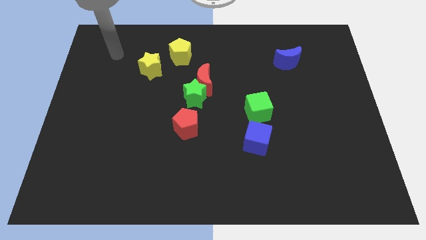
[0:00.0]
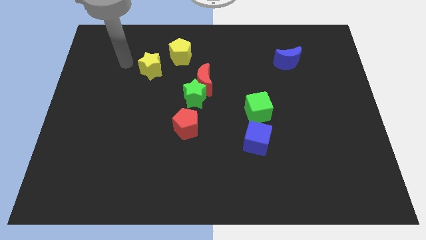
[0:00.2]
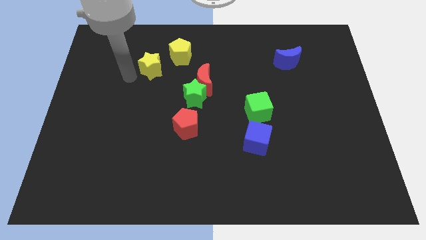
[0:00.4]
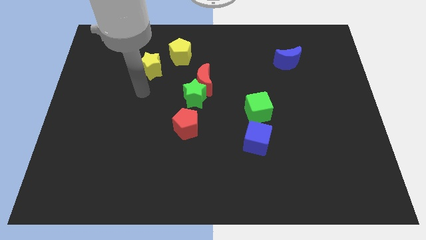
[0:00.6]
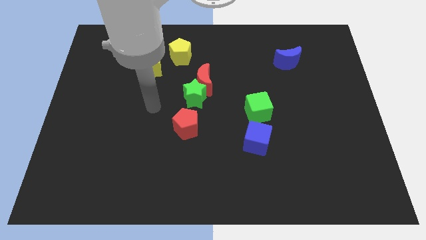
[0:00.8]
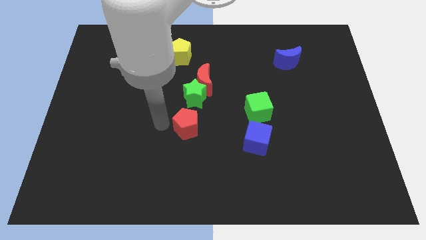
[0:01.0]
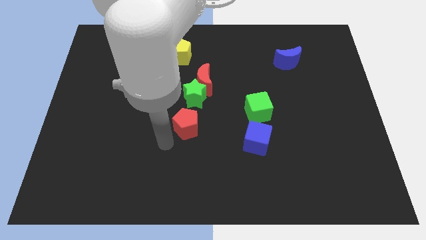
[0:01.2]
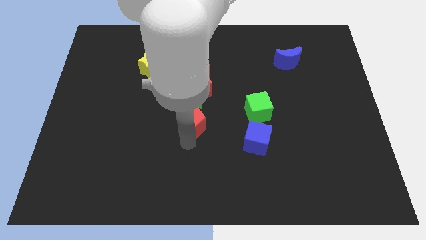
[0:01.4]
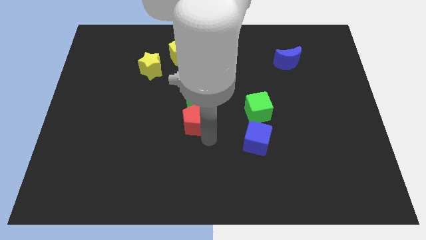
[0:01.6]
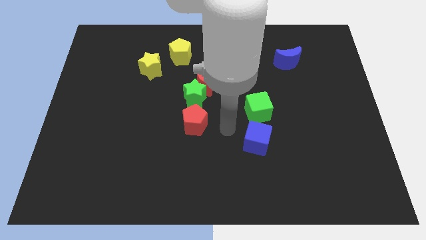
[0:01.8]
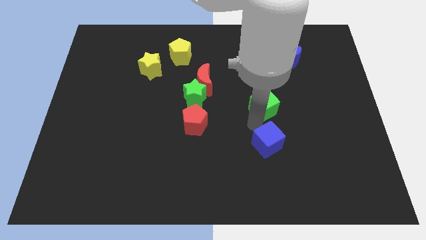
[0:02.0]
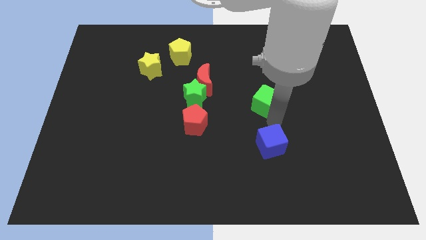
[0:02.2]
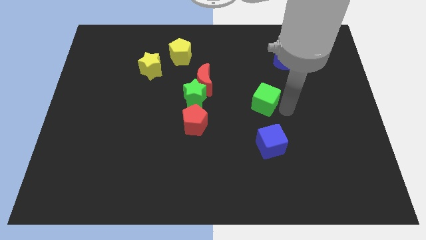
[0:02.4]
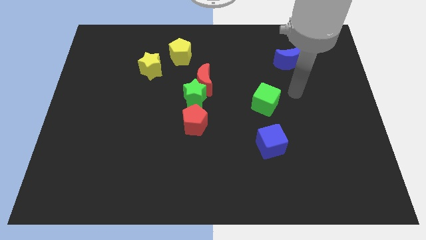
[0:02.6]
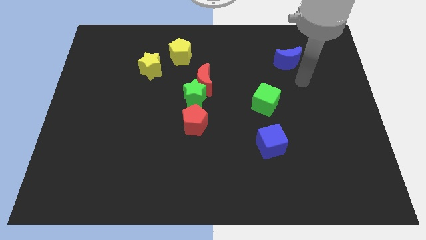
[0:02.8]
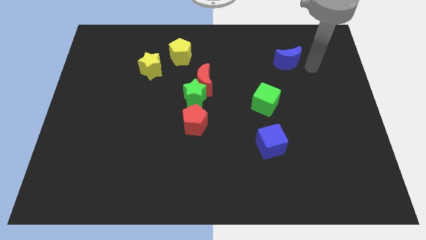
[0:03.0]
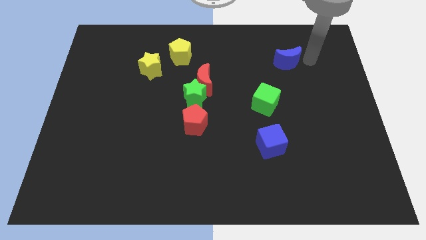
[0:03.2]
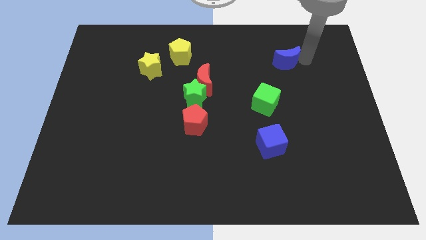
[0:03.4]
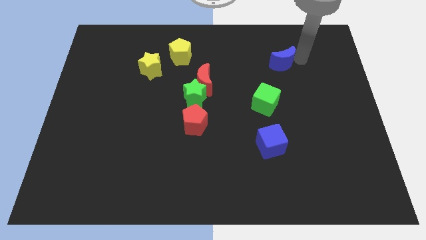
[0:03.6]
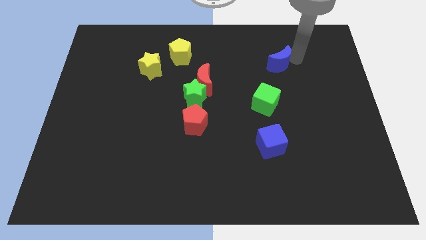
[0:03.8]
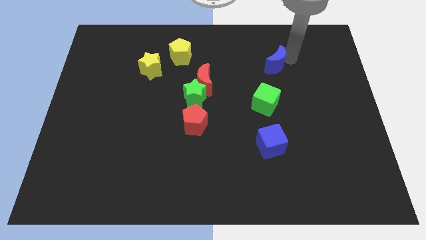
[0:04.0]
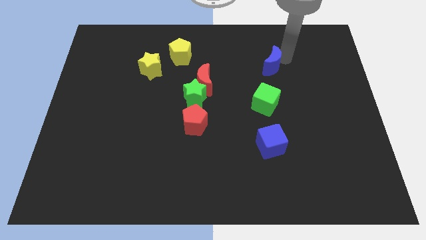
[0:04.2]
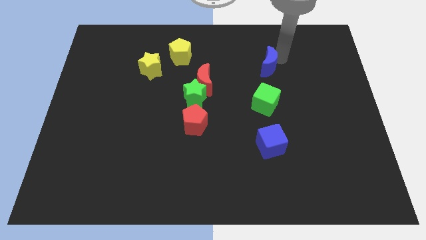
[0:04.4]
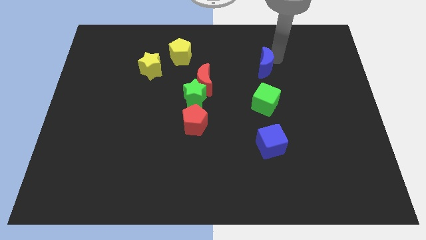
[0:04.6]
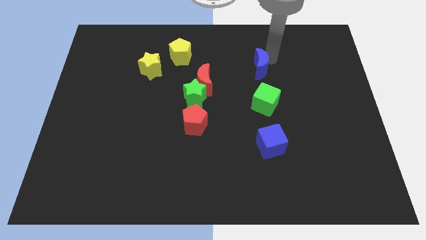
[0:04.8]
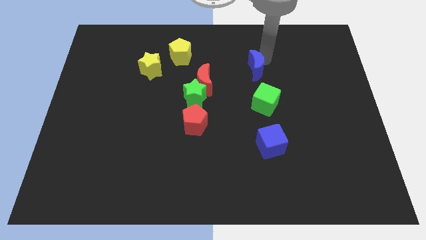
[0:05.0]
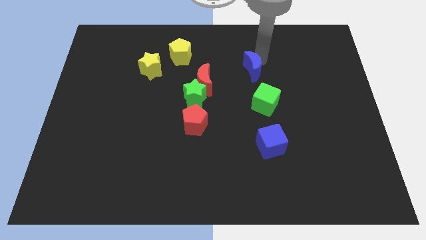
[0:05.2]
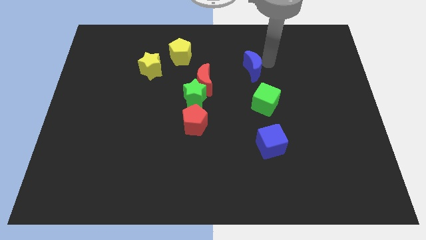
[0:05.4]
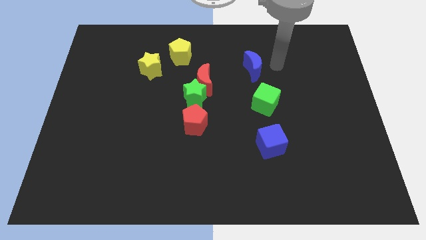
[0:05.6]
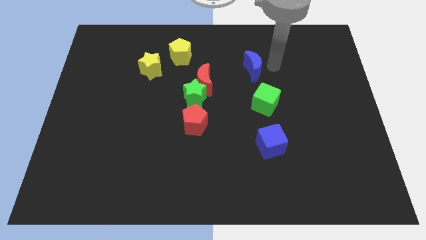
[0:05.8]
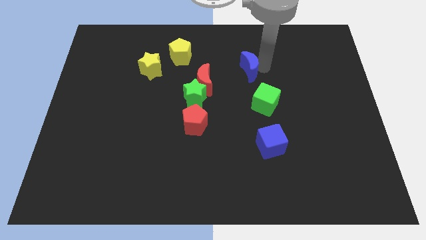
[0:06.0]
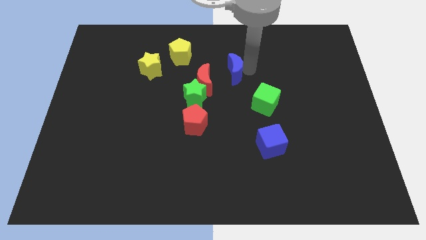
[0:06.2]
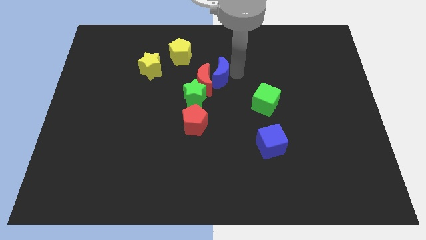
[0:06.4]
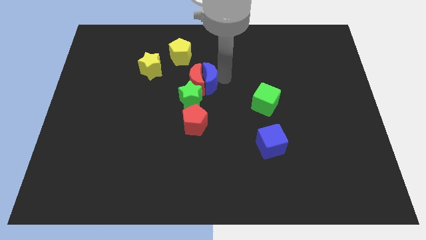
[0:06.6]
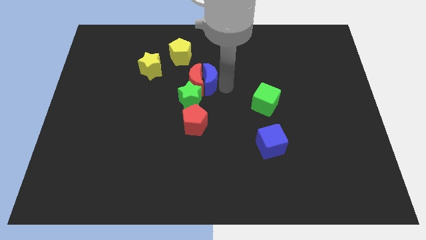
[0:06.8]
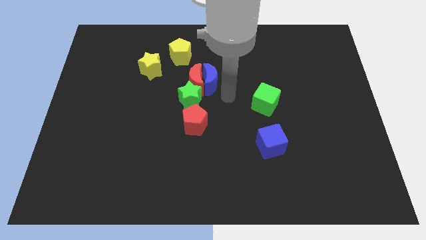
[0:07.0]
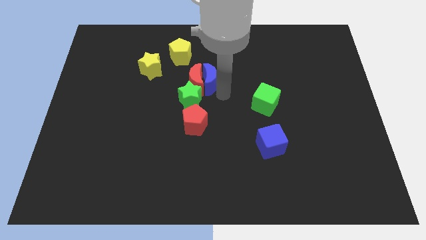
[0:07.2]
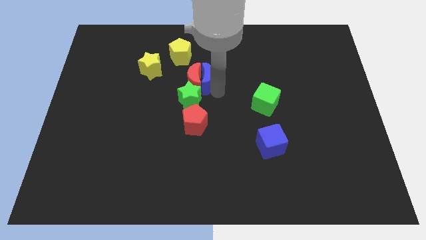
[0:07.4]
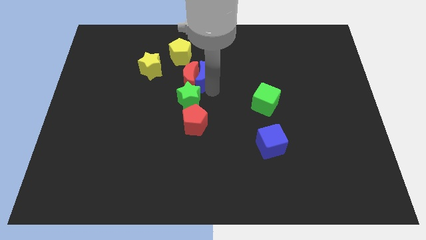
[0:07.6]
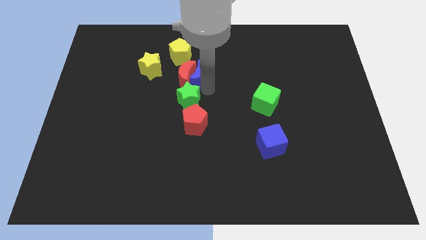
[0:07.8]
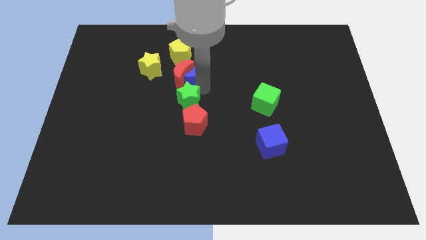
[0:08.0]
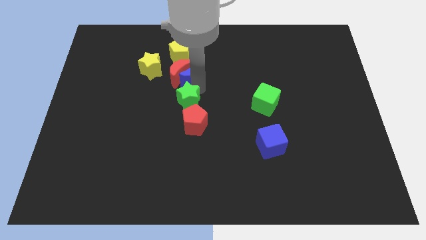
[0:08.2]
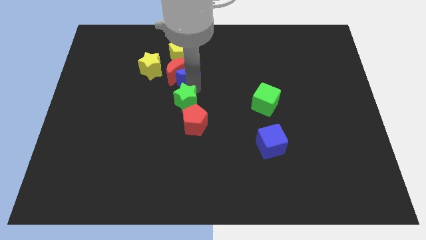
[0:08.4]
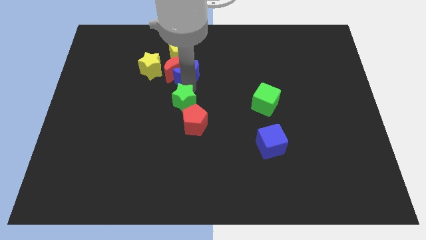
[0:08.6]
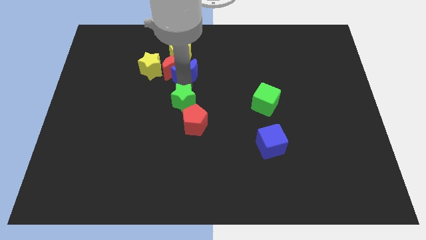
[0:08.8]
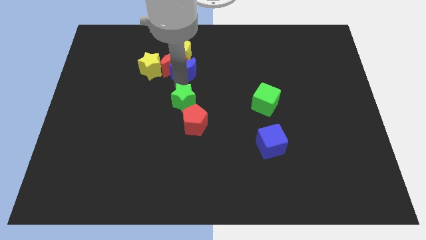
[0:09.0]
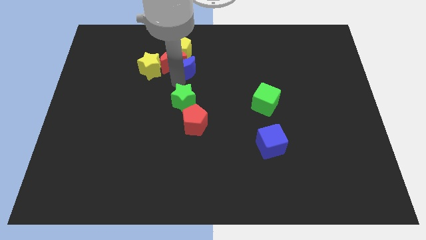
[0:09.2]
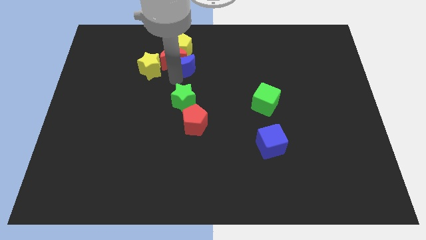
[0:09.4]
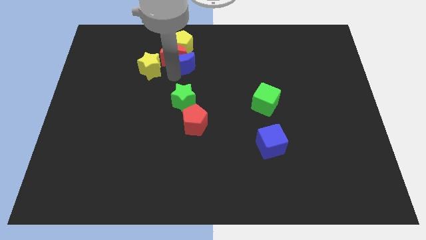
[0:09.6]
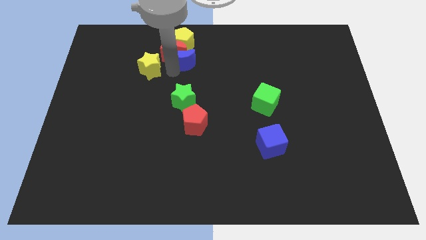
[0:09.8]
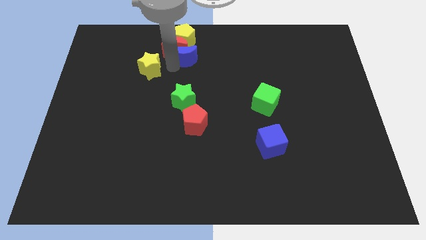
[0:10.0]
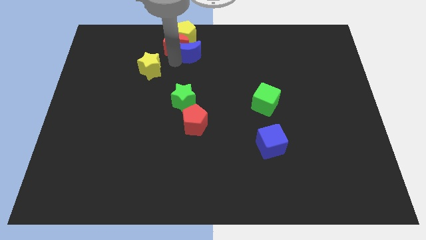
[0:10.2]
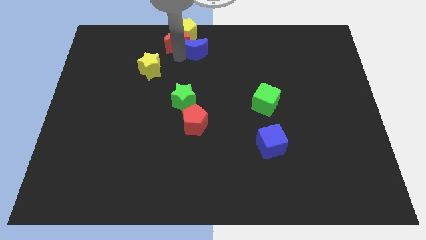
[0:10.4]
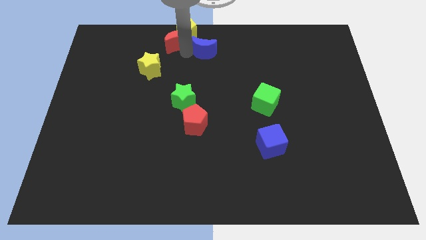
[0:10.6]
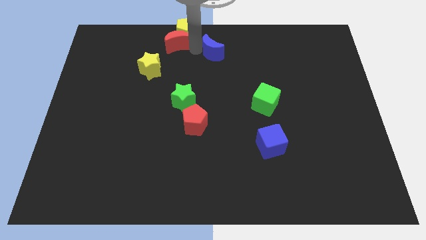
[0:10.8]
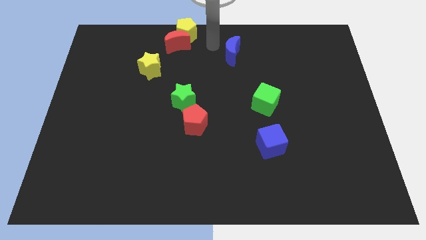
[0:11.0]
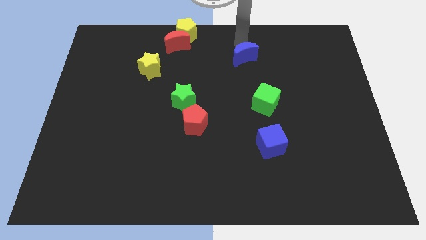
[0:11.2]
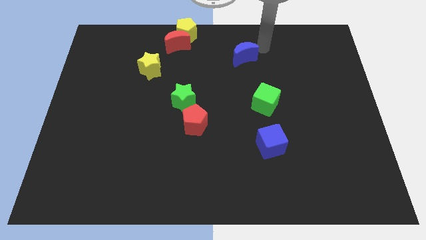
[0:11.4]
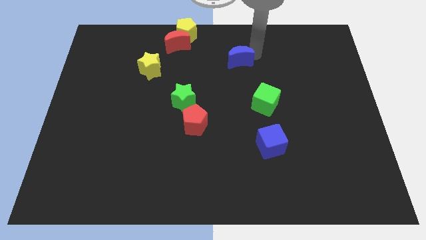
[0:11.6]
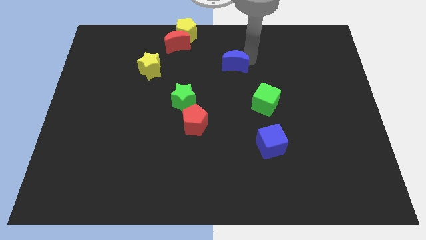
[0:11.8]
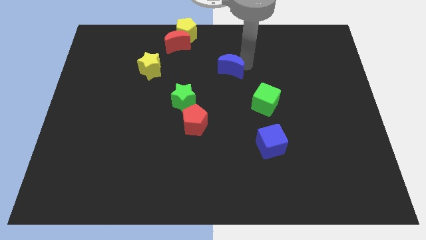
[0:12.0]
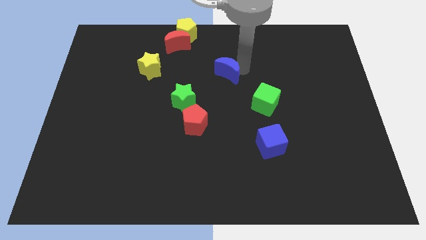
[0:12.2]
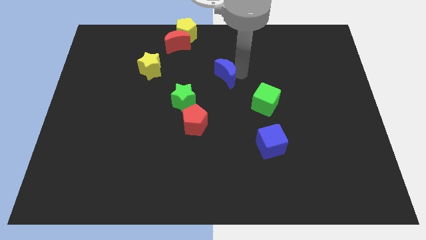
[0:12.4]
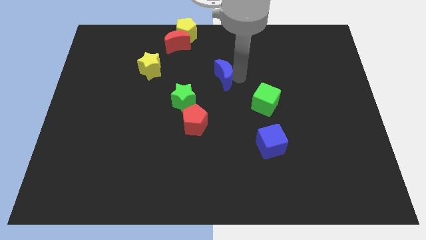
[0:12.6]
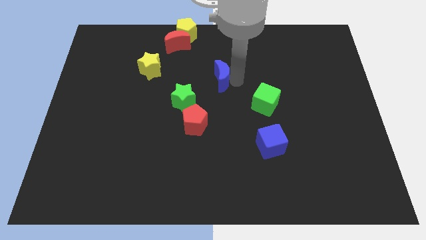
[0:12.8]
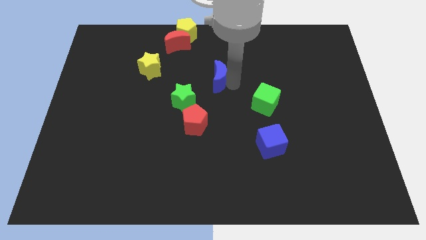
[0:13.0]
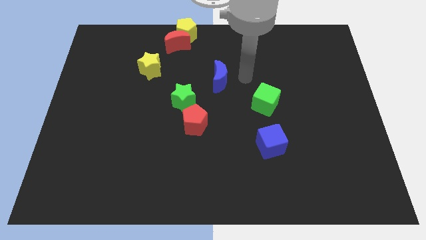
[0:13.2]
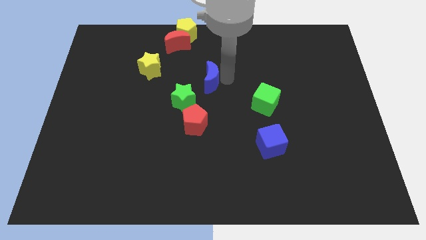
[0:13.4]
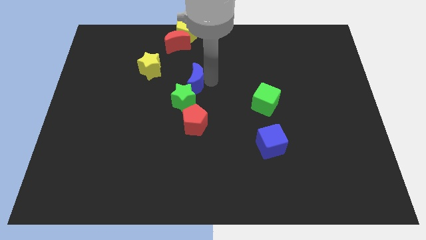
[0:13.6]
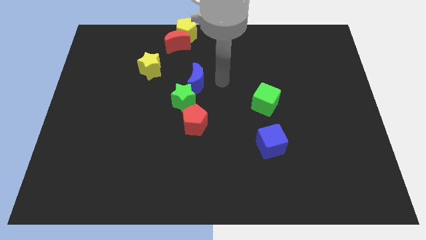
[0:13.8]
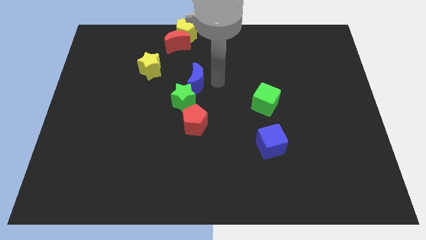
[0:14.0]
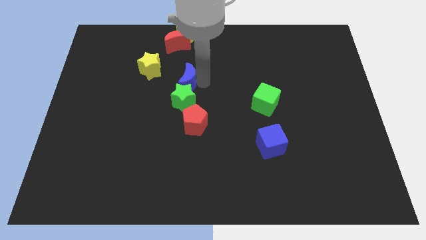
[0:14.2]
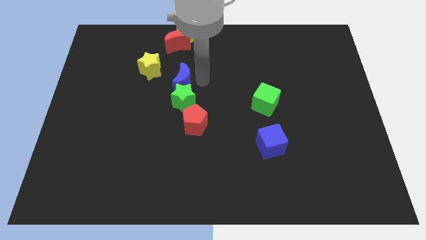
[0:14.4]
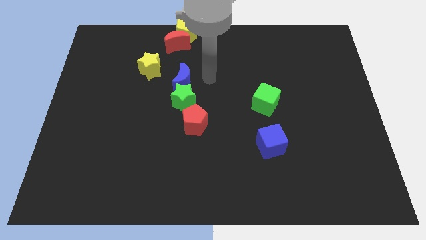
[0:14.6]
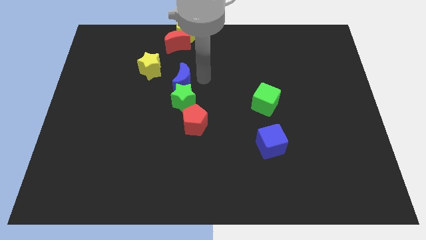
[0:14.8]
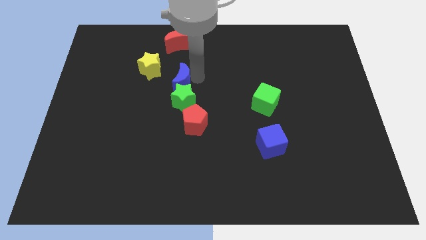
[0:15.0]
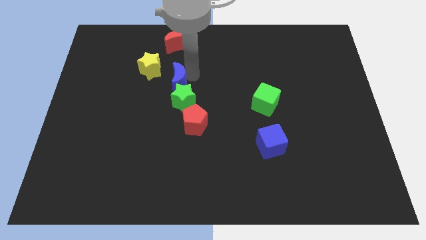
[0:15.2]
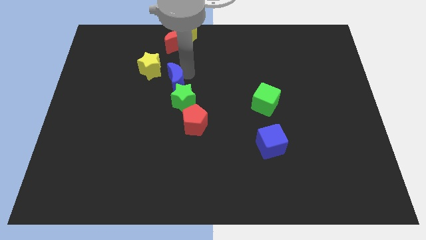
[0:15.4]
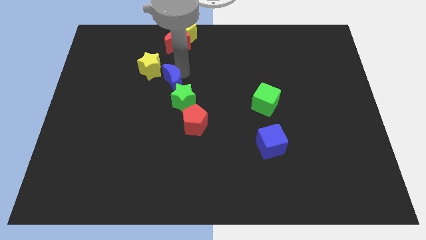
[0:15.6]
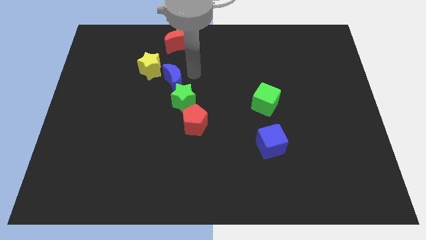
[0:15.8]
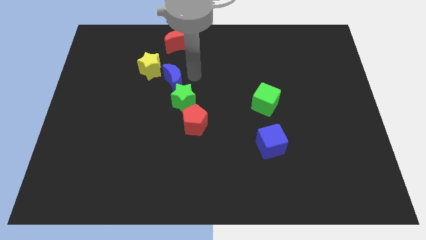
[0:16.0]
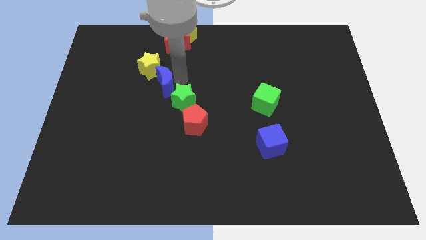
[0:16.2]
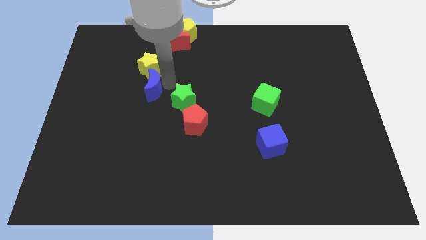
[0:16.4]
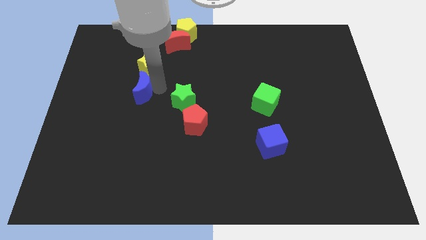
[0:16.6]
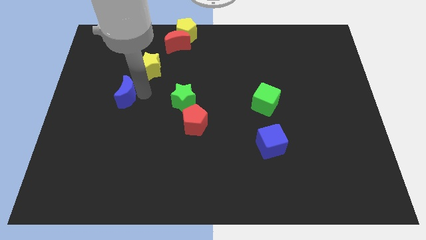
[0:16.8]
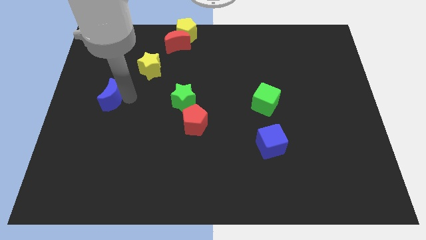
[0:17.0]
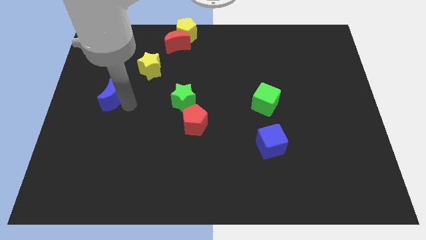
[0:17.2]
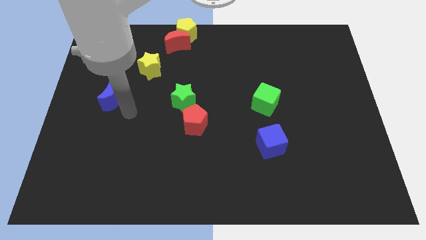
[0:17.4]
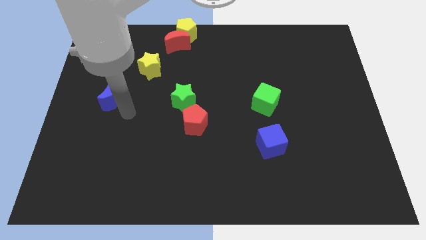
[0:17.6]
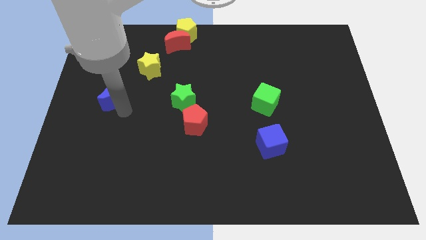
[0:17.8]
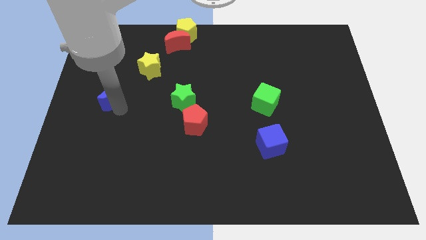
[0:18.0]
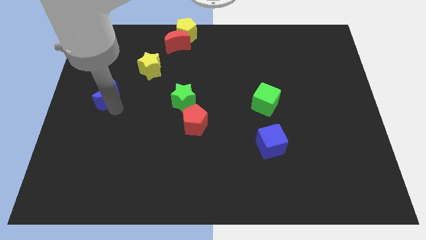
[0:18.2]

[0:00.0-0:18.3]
put the blue moon to the left side of the board
